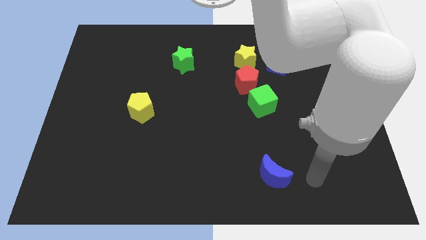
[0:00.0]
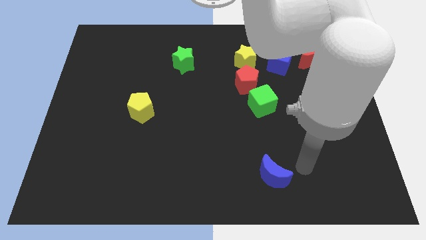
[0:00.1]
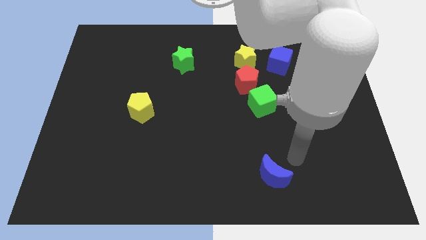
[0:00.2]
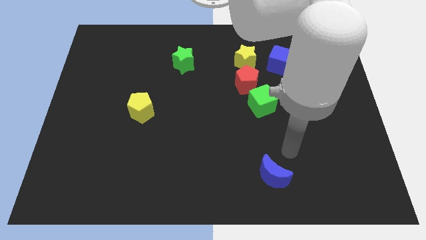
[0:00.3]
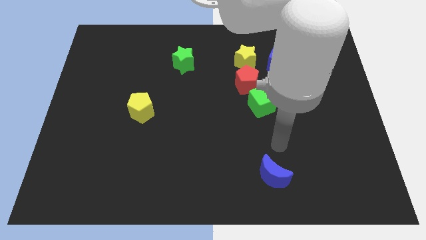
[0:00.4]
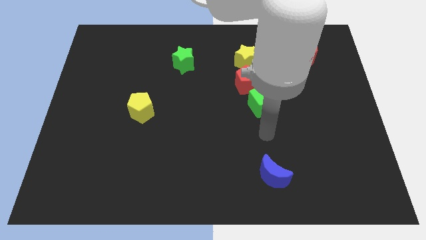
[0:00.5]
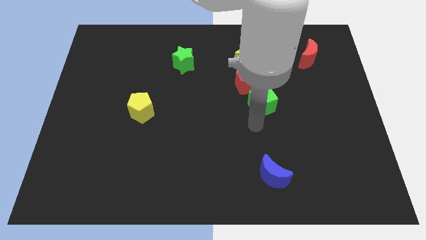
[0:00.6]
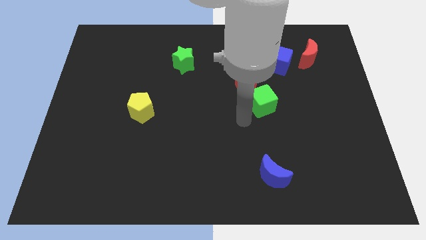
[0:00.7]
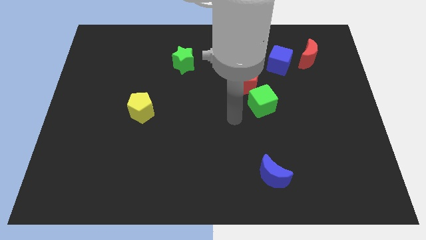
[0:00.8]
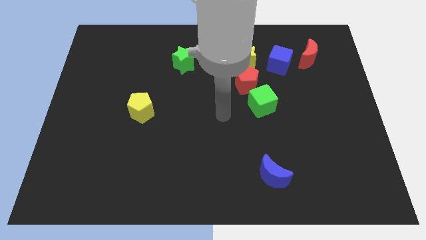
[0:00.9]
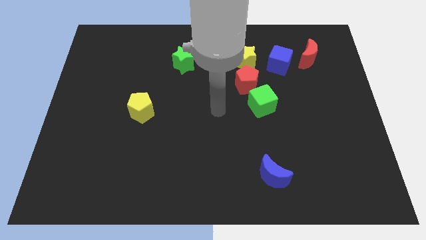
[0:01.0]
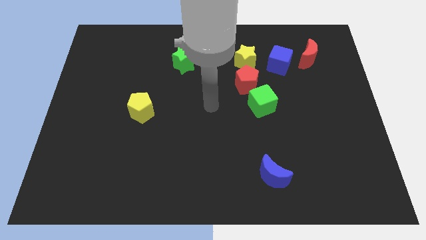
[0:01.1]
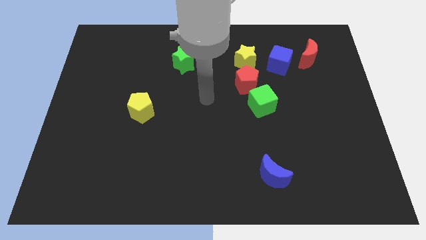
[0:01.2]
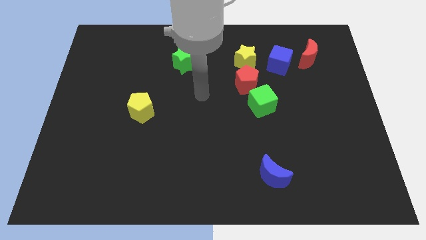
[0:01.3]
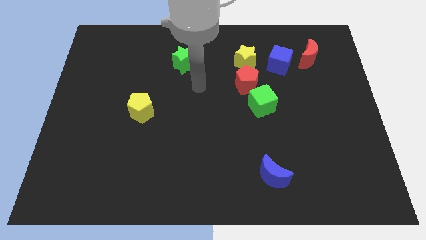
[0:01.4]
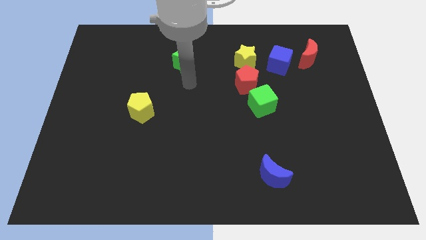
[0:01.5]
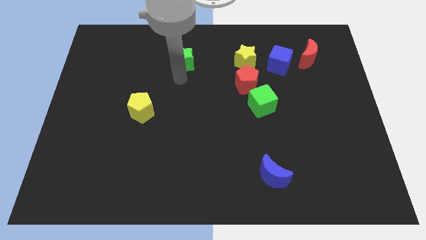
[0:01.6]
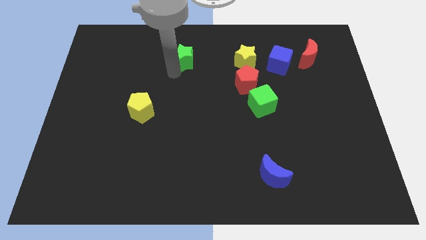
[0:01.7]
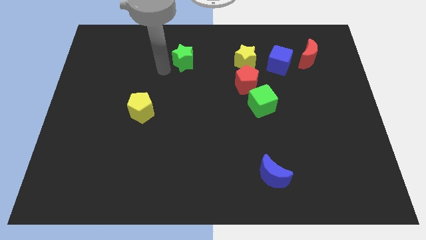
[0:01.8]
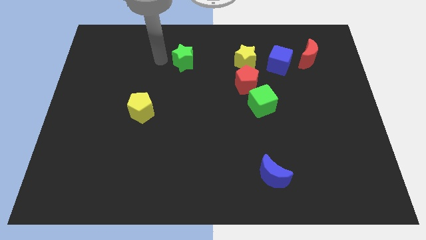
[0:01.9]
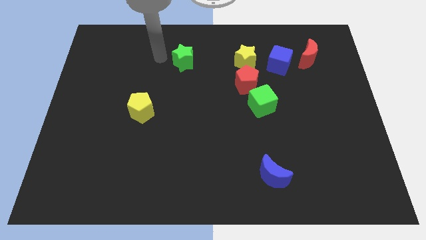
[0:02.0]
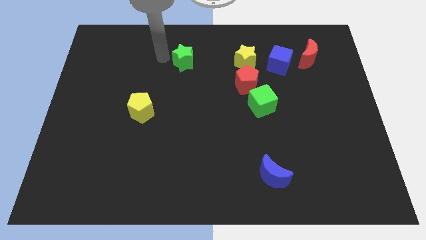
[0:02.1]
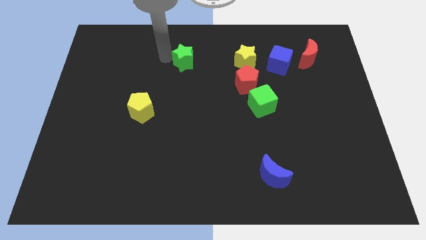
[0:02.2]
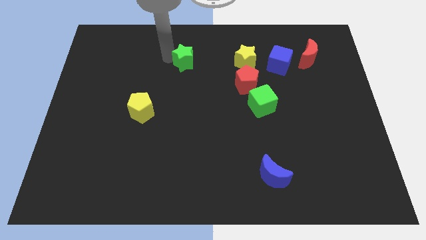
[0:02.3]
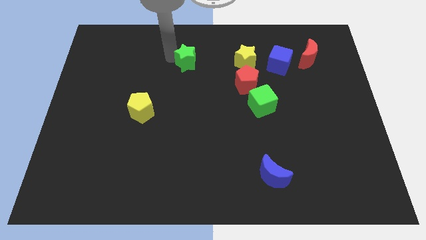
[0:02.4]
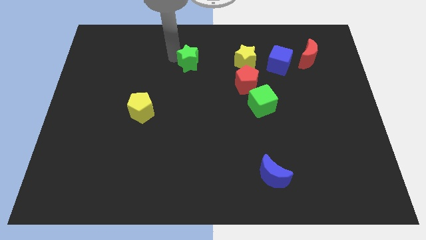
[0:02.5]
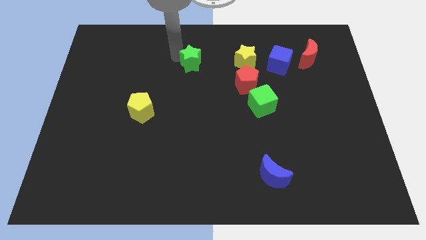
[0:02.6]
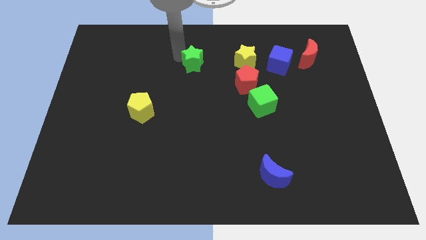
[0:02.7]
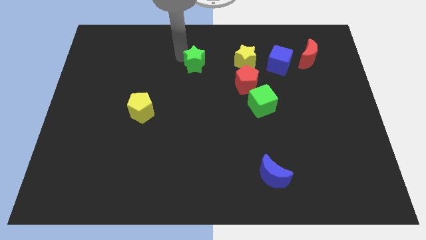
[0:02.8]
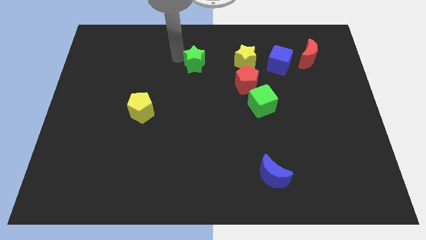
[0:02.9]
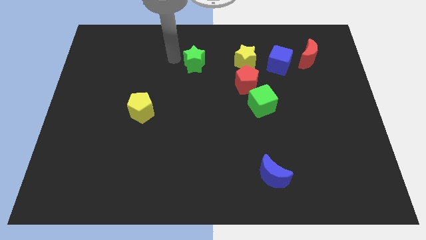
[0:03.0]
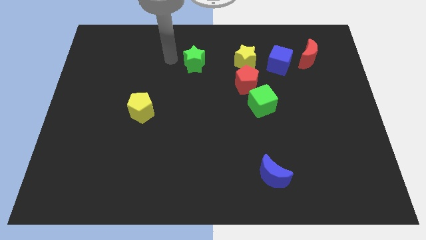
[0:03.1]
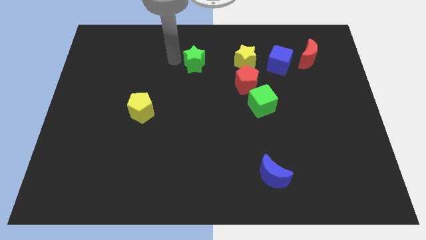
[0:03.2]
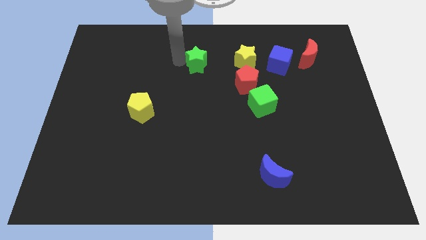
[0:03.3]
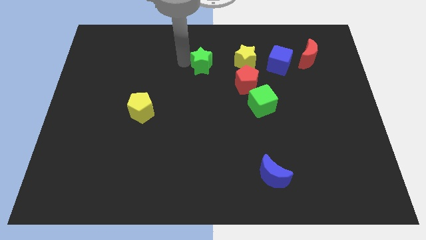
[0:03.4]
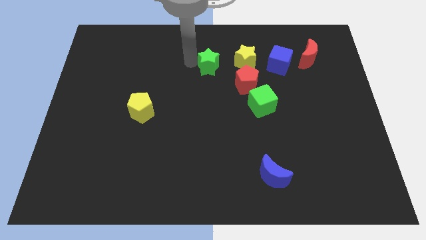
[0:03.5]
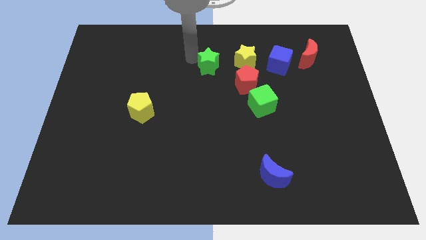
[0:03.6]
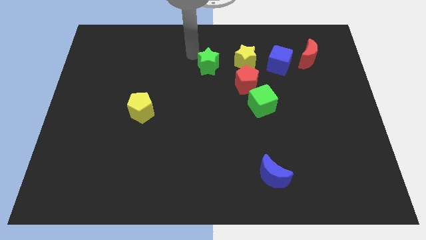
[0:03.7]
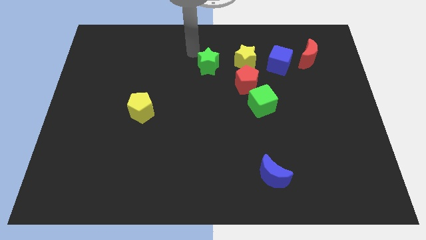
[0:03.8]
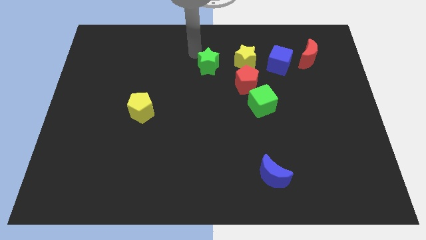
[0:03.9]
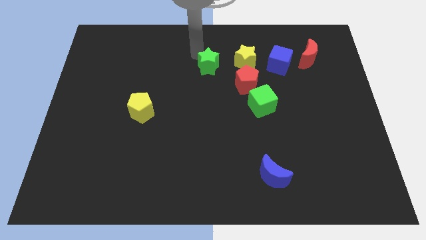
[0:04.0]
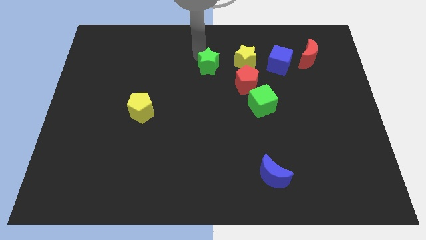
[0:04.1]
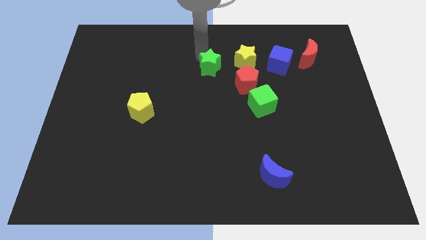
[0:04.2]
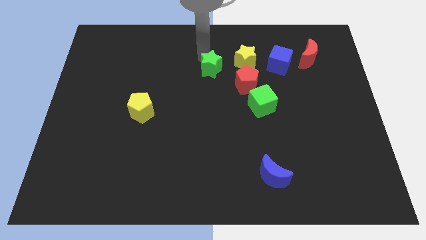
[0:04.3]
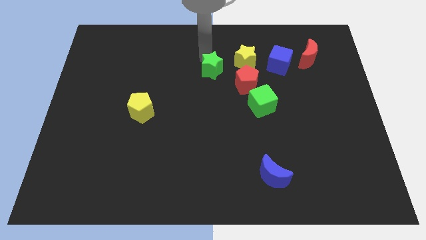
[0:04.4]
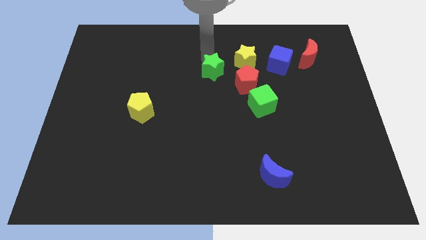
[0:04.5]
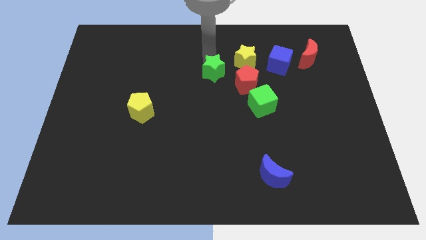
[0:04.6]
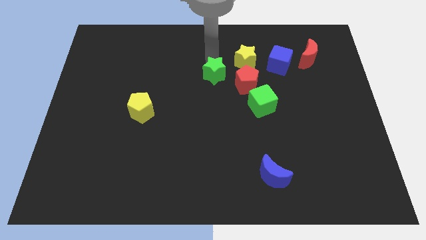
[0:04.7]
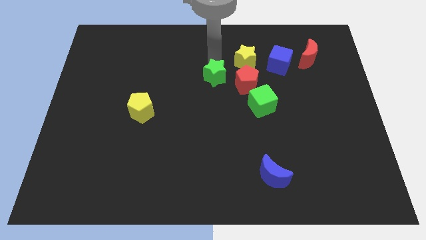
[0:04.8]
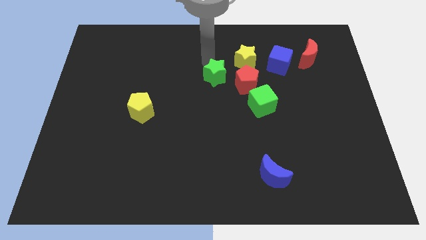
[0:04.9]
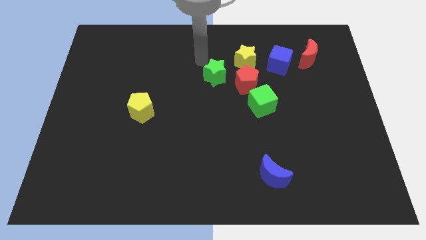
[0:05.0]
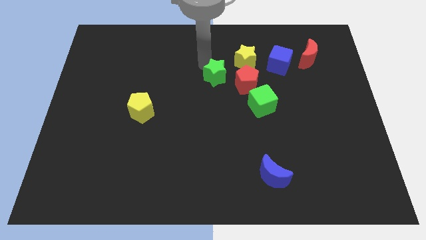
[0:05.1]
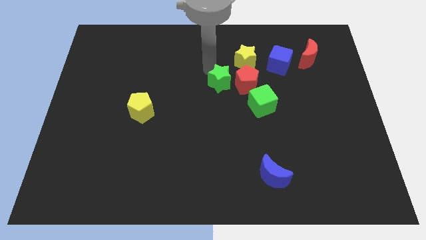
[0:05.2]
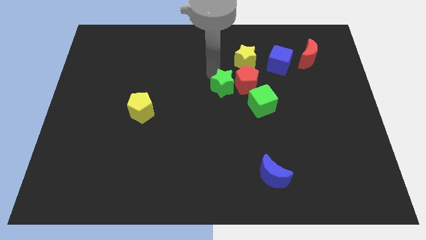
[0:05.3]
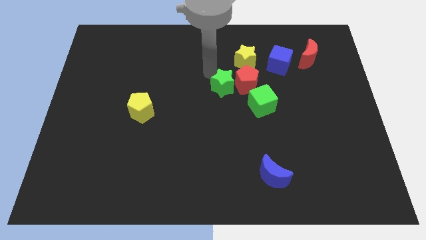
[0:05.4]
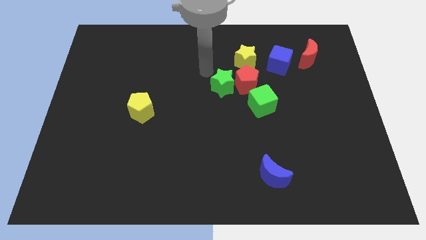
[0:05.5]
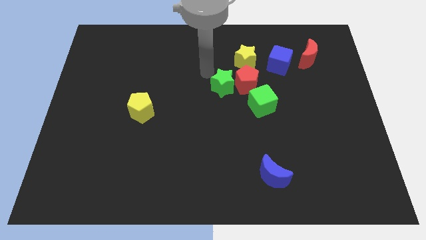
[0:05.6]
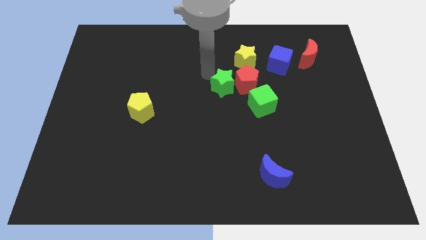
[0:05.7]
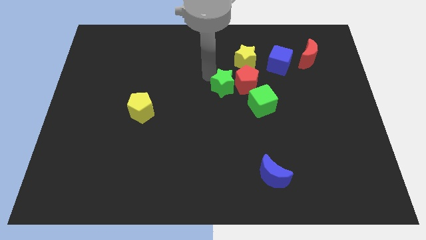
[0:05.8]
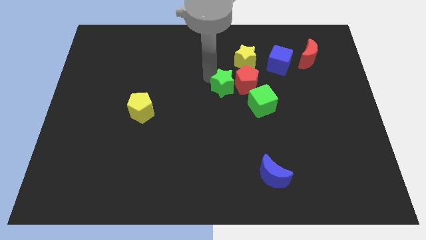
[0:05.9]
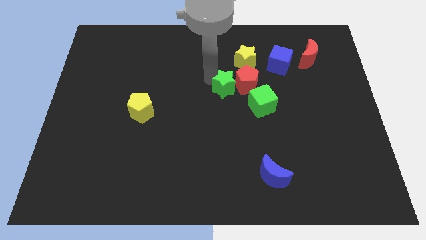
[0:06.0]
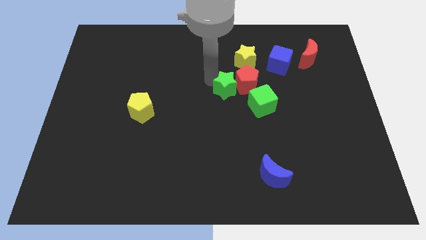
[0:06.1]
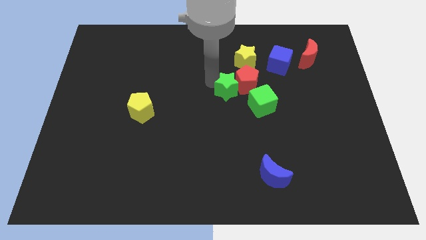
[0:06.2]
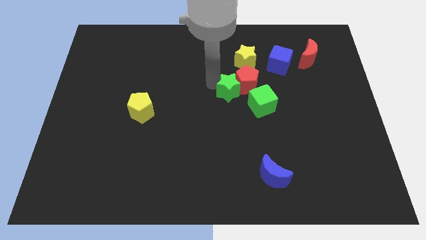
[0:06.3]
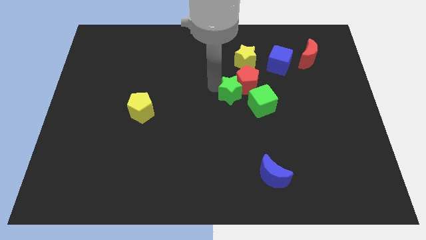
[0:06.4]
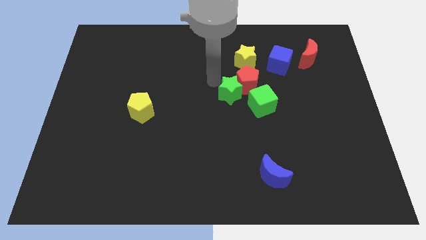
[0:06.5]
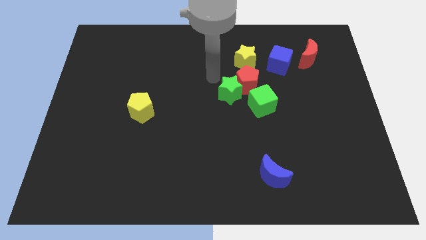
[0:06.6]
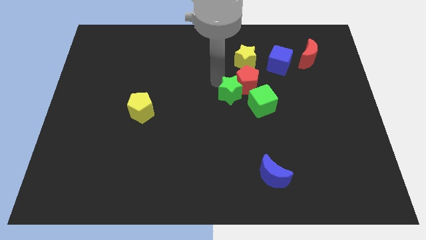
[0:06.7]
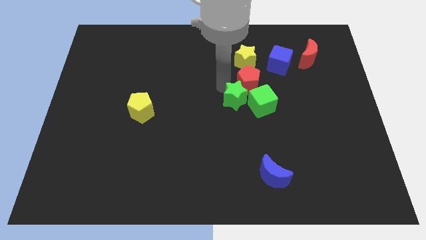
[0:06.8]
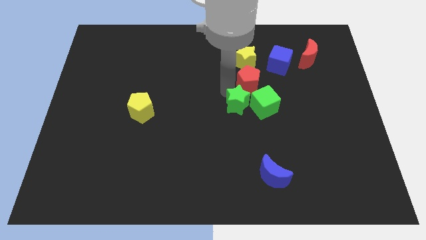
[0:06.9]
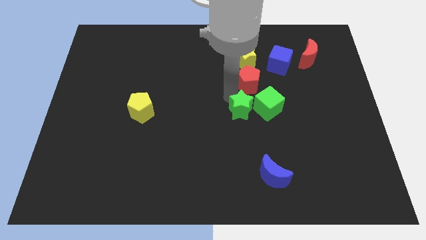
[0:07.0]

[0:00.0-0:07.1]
slide the green star downwards and to the right

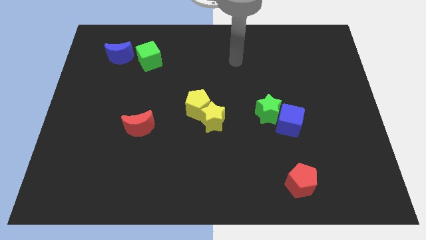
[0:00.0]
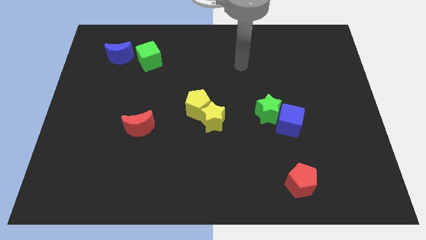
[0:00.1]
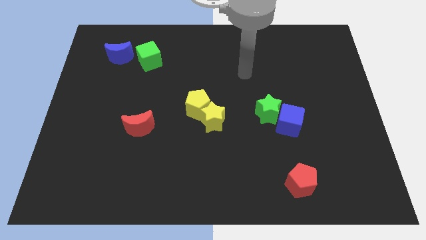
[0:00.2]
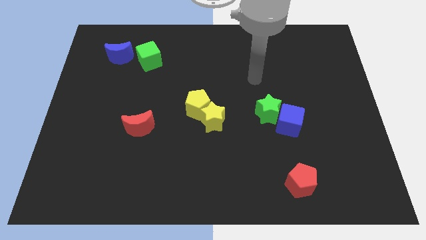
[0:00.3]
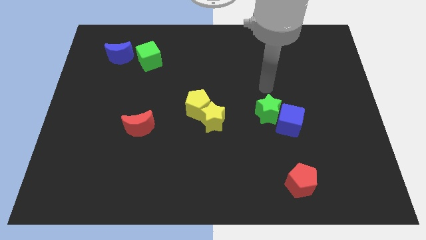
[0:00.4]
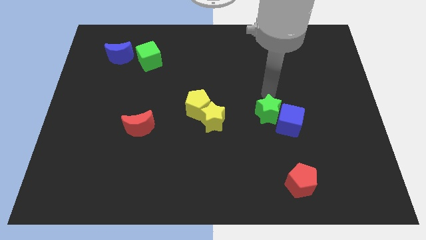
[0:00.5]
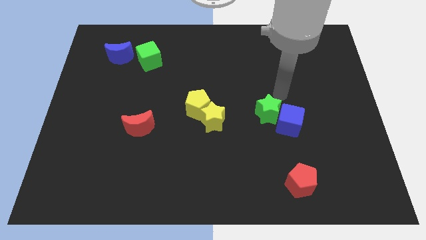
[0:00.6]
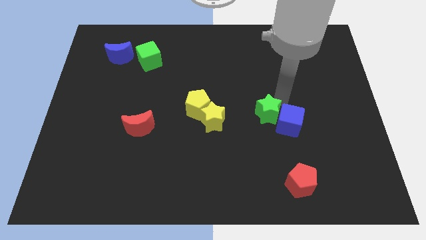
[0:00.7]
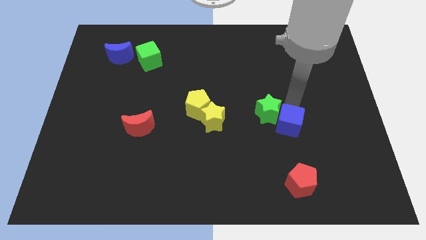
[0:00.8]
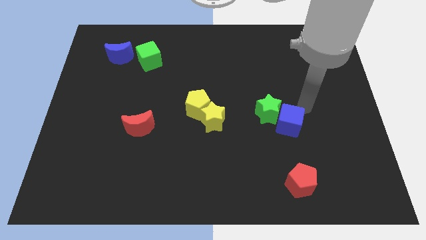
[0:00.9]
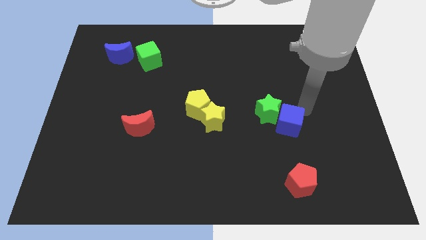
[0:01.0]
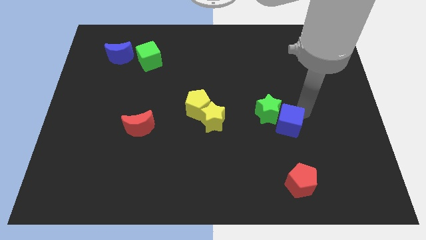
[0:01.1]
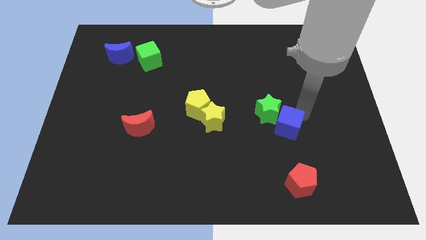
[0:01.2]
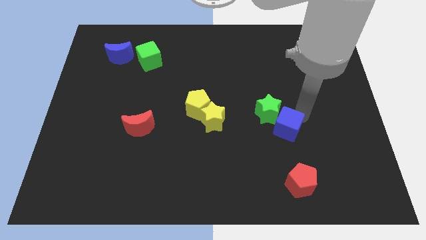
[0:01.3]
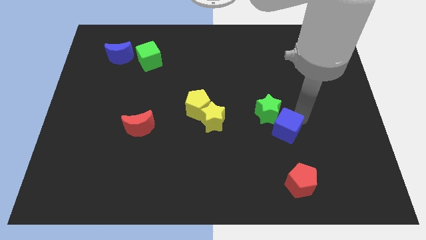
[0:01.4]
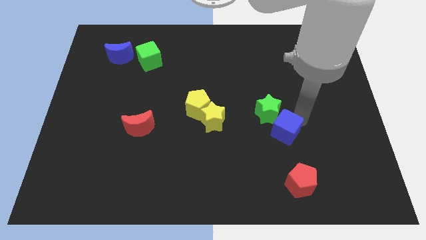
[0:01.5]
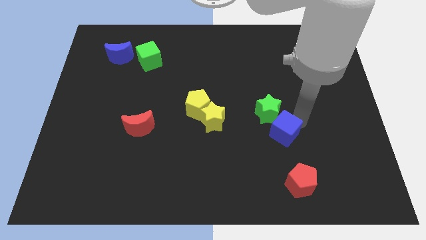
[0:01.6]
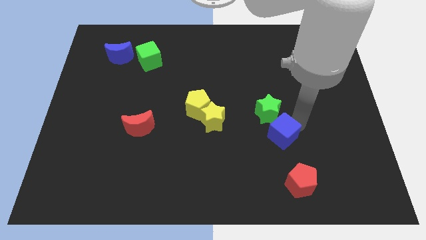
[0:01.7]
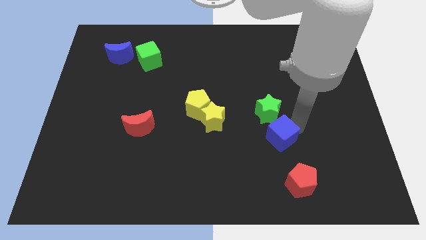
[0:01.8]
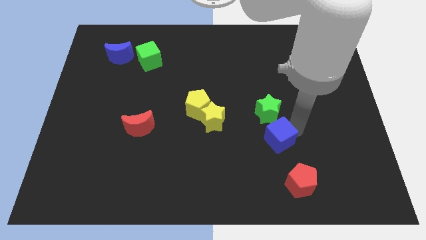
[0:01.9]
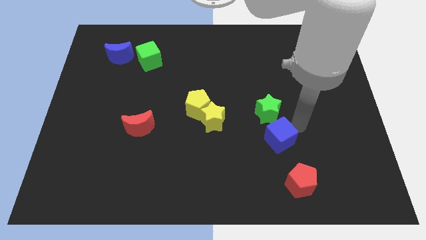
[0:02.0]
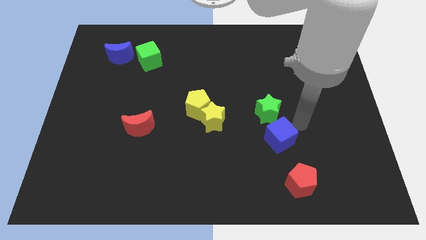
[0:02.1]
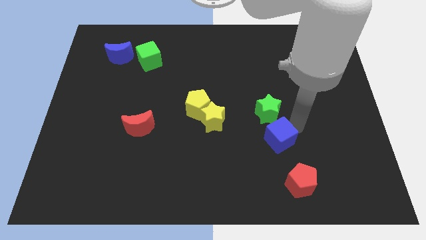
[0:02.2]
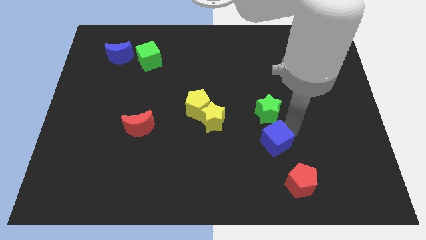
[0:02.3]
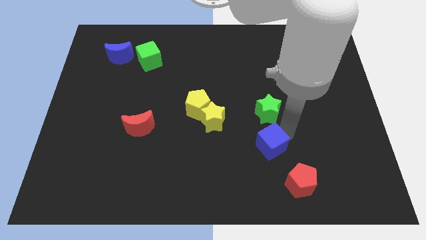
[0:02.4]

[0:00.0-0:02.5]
slightly move the blue cube diagonally downwards and left
